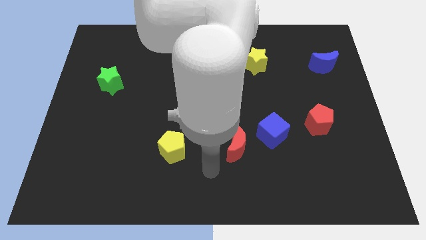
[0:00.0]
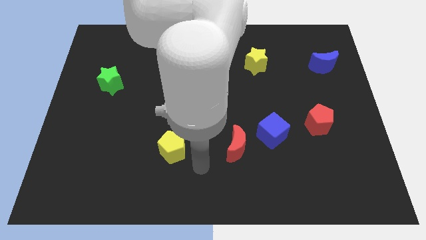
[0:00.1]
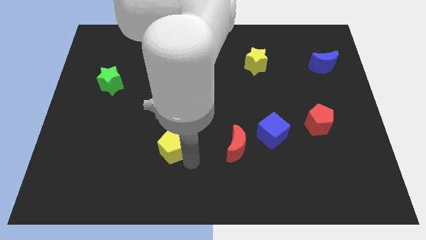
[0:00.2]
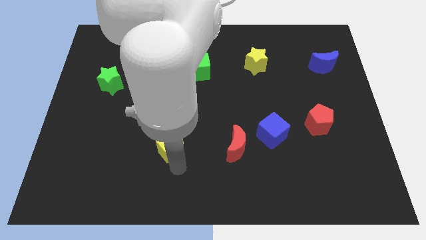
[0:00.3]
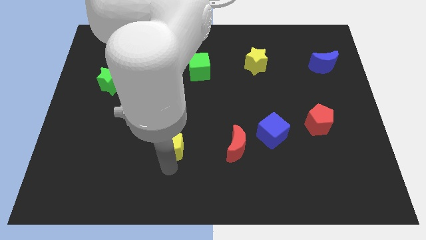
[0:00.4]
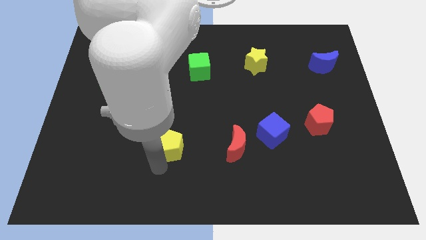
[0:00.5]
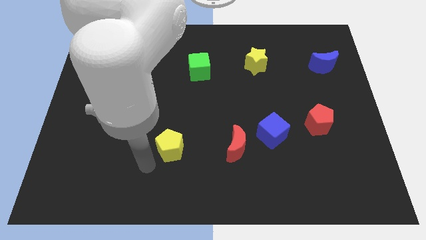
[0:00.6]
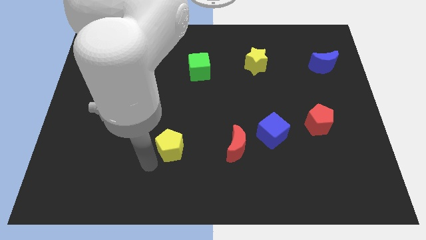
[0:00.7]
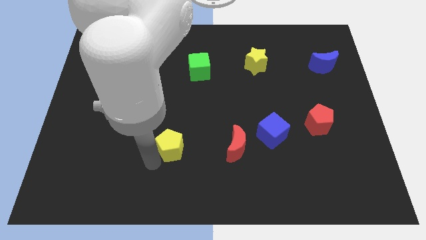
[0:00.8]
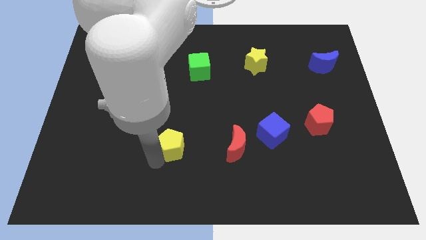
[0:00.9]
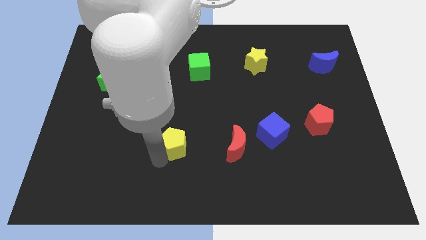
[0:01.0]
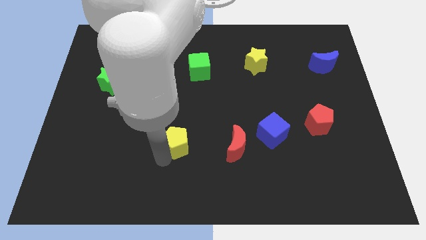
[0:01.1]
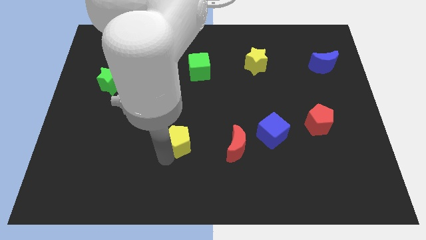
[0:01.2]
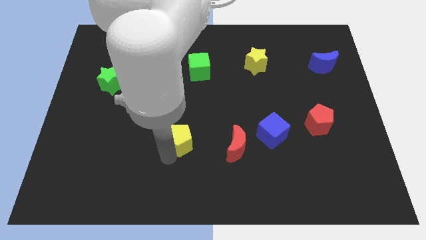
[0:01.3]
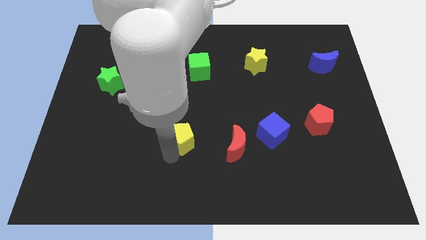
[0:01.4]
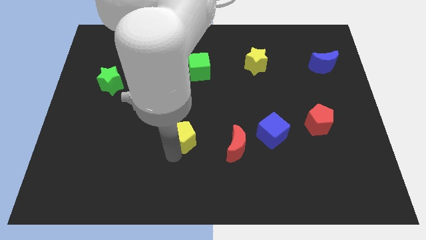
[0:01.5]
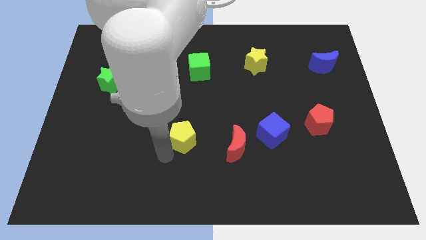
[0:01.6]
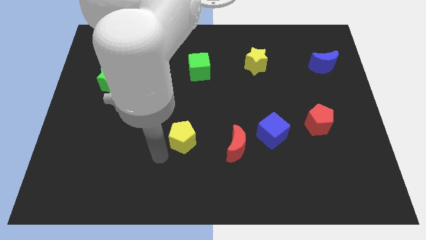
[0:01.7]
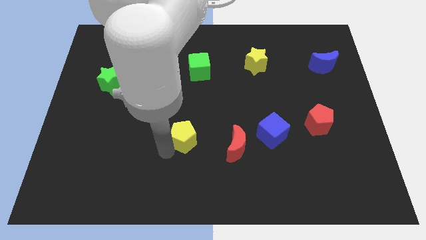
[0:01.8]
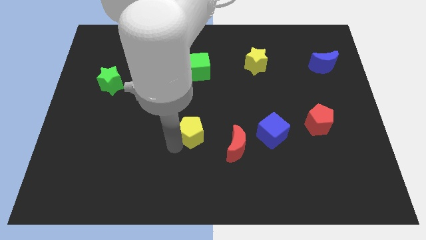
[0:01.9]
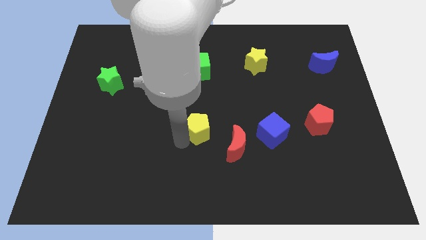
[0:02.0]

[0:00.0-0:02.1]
push the yellow pentagon diagonally upwards and right a little bit

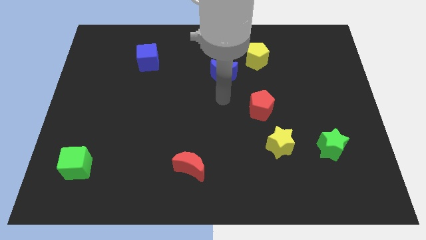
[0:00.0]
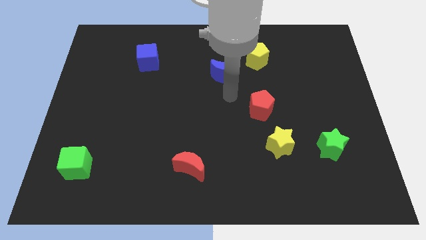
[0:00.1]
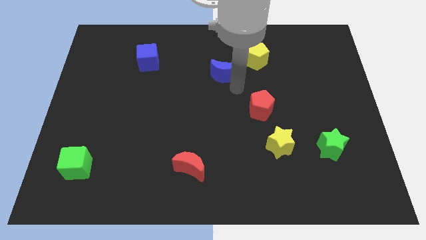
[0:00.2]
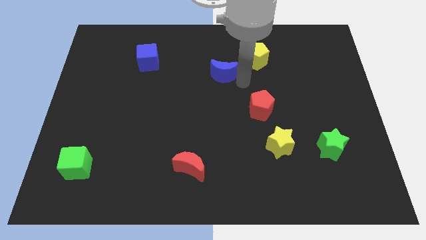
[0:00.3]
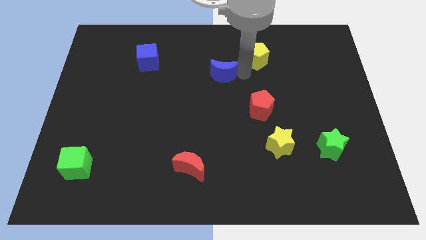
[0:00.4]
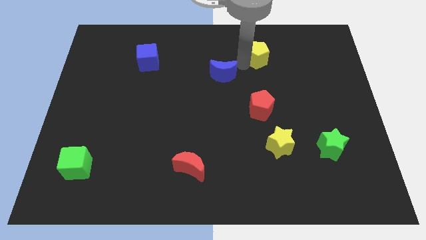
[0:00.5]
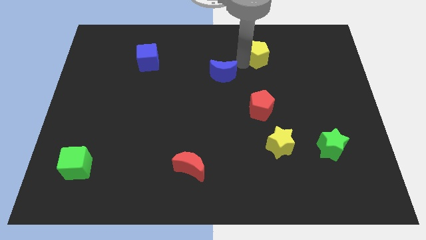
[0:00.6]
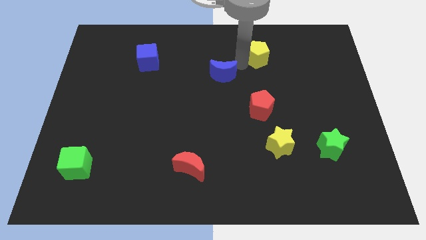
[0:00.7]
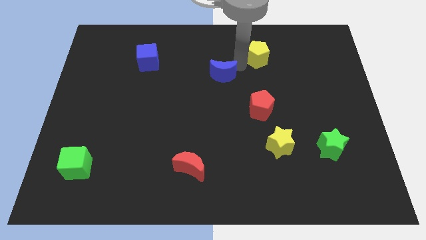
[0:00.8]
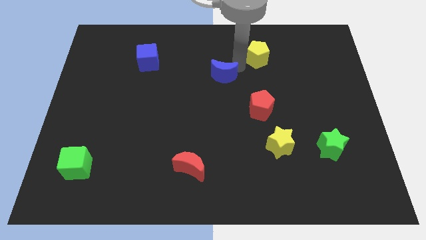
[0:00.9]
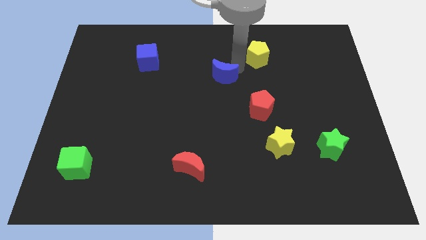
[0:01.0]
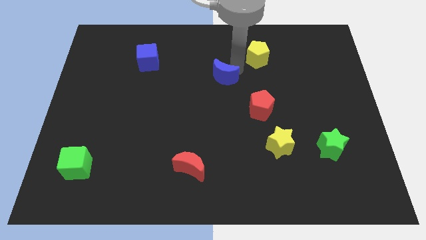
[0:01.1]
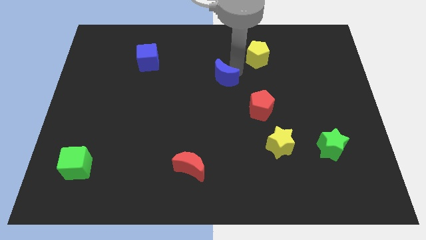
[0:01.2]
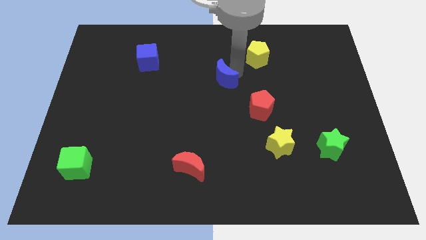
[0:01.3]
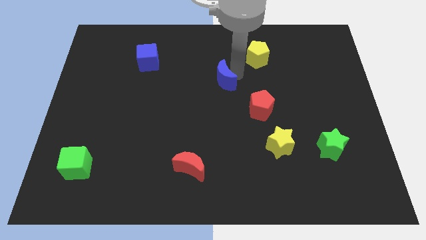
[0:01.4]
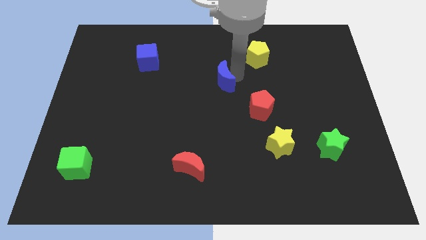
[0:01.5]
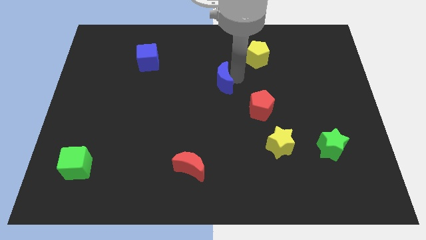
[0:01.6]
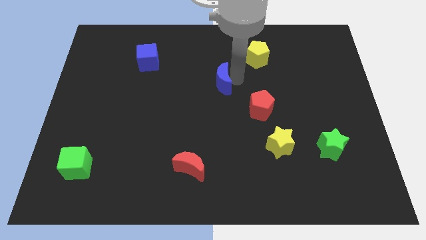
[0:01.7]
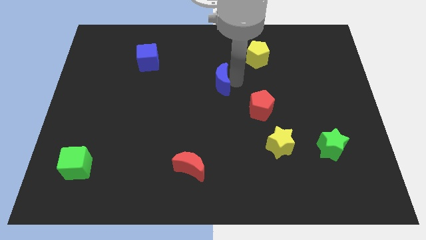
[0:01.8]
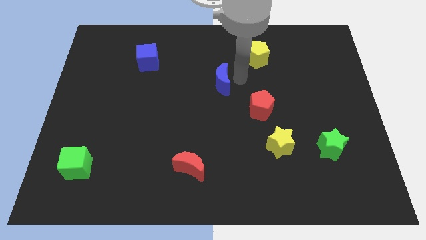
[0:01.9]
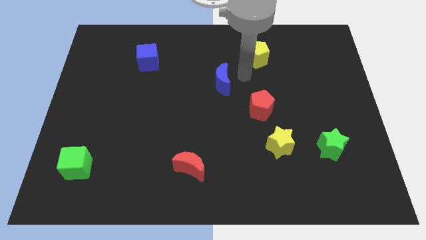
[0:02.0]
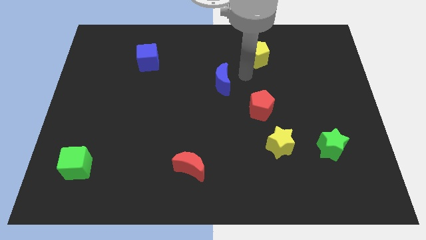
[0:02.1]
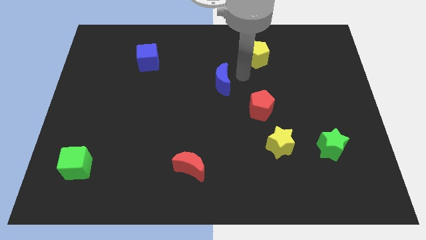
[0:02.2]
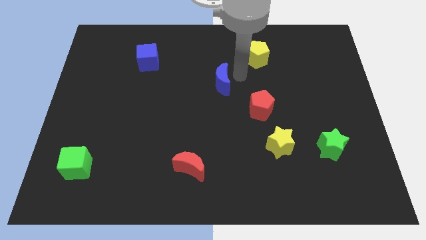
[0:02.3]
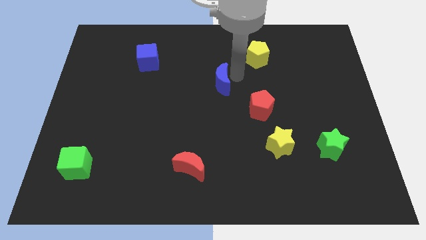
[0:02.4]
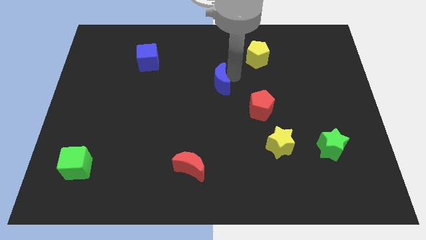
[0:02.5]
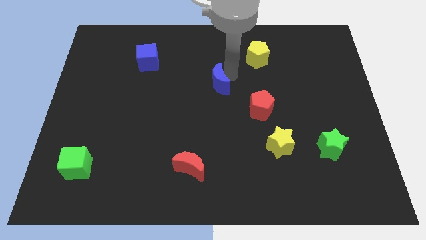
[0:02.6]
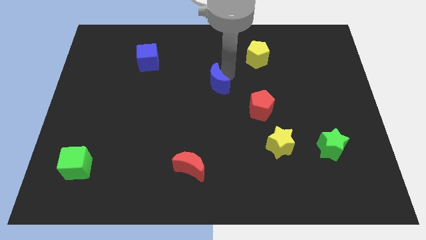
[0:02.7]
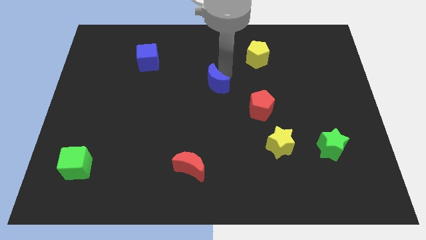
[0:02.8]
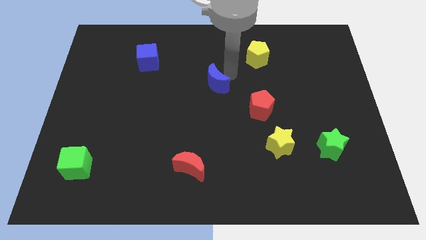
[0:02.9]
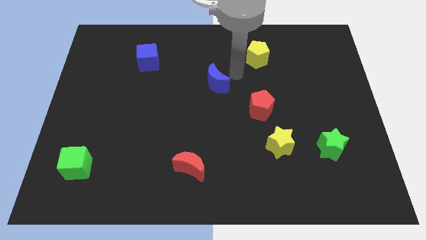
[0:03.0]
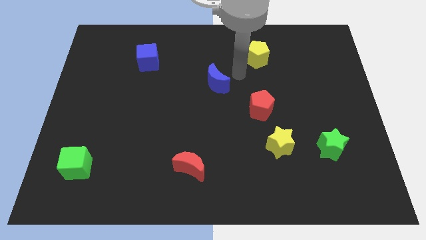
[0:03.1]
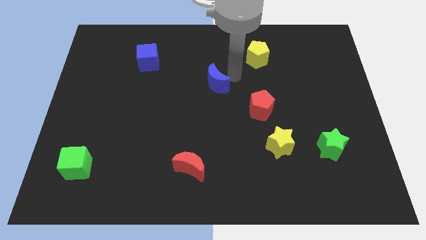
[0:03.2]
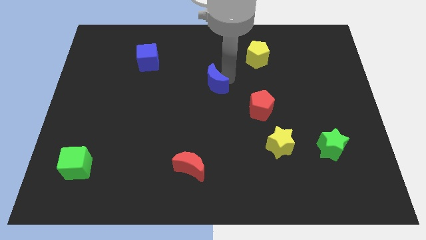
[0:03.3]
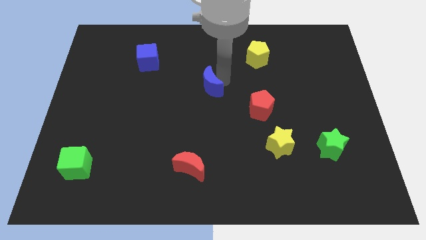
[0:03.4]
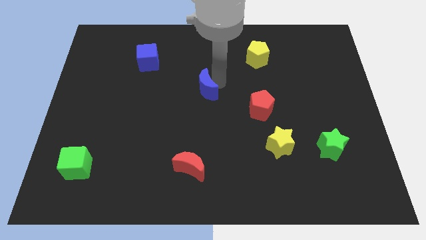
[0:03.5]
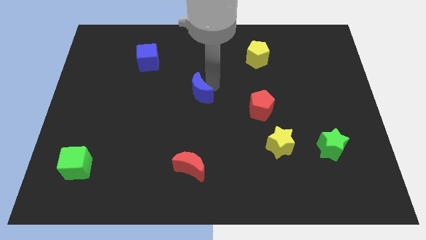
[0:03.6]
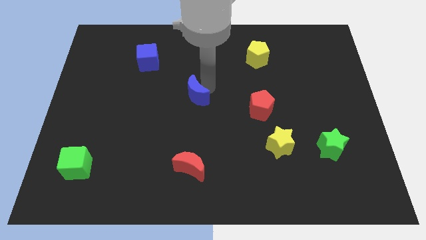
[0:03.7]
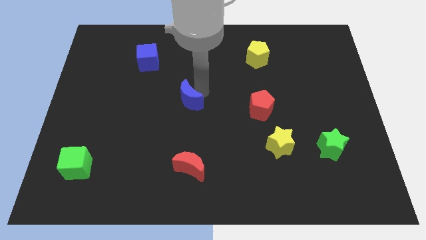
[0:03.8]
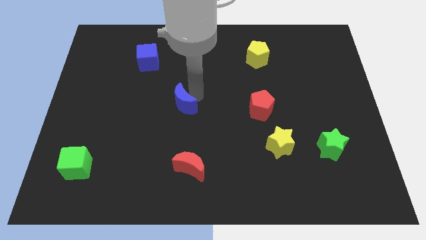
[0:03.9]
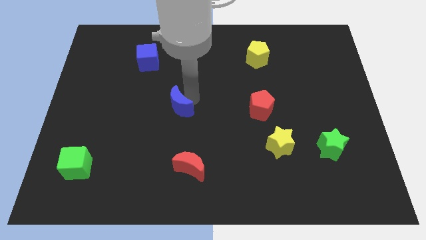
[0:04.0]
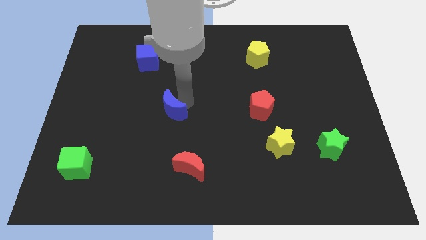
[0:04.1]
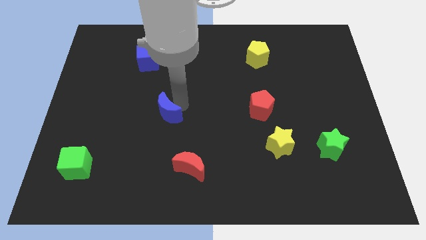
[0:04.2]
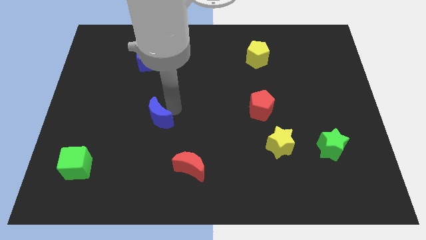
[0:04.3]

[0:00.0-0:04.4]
push the blue moon down and to the left diagonally

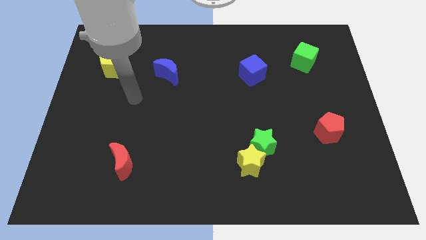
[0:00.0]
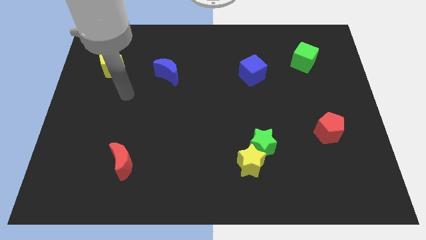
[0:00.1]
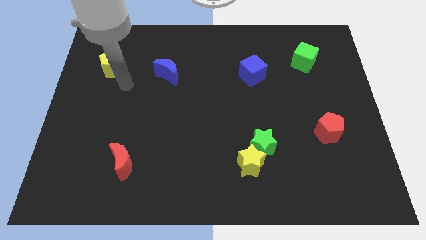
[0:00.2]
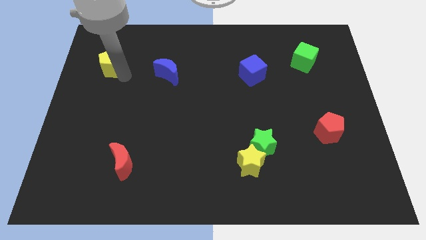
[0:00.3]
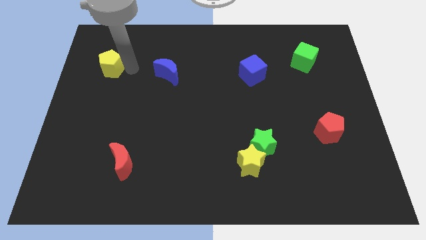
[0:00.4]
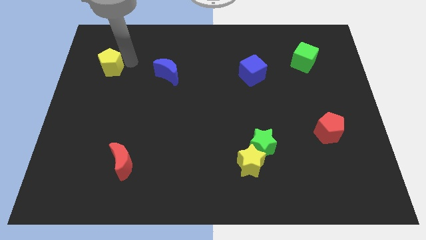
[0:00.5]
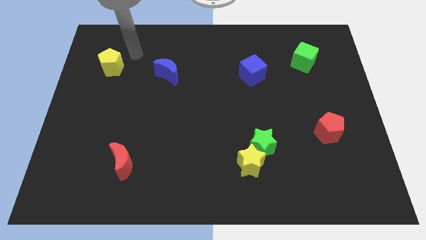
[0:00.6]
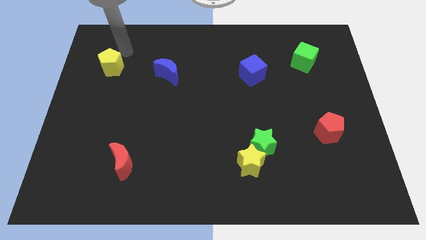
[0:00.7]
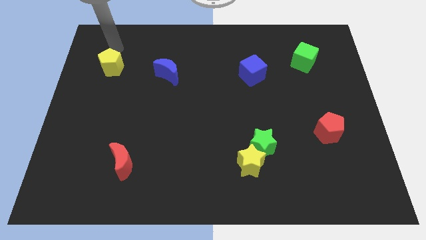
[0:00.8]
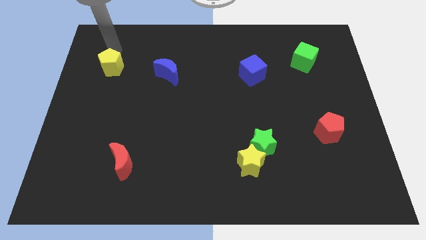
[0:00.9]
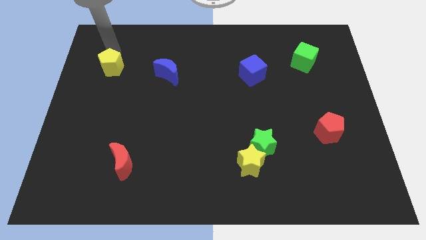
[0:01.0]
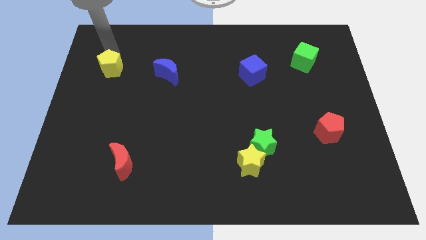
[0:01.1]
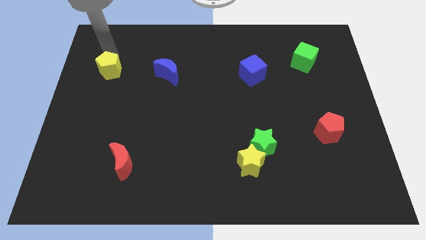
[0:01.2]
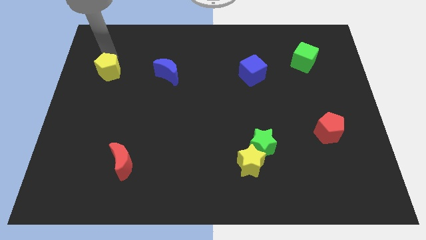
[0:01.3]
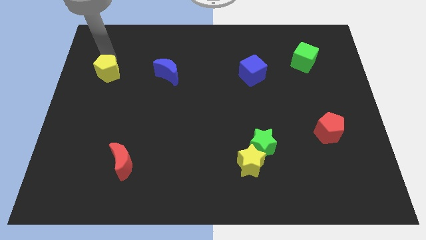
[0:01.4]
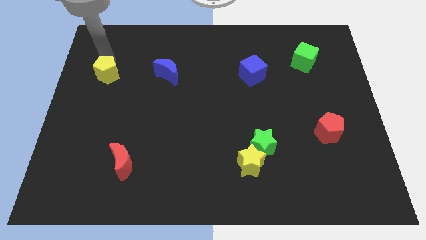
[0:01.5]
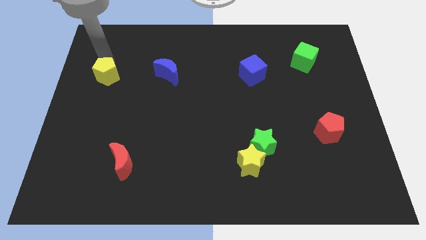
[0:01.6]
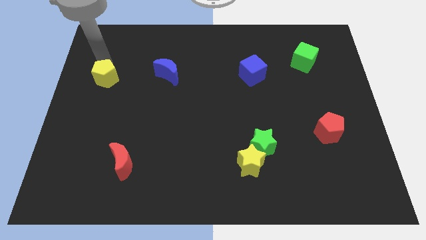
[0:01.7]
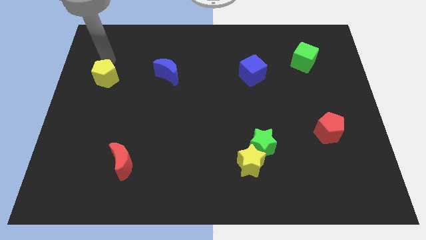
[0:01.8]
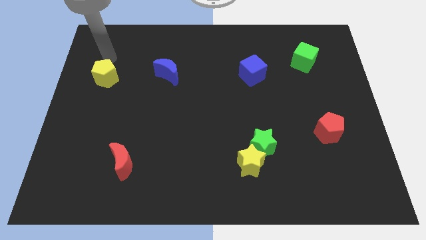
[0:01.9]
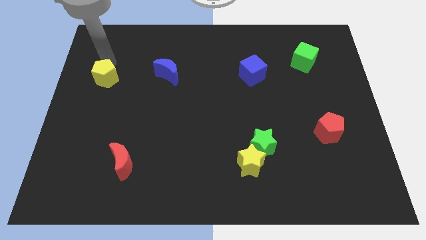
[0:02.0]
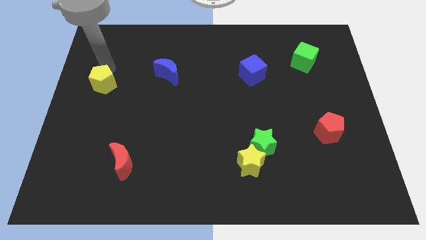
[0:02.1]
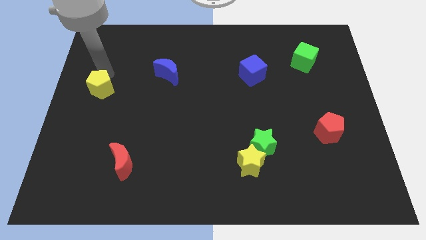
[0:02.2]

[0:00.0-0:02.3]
push the yellow pentagon down a little
